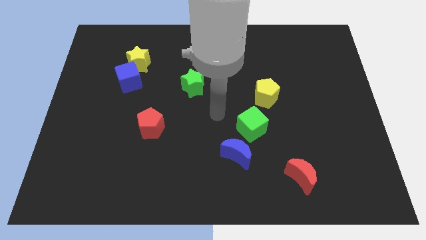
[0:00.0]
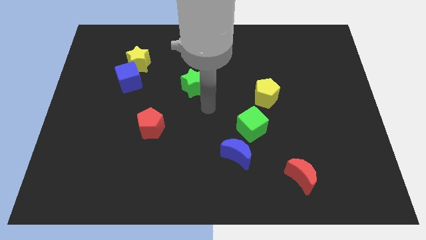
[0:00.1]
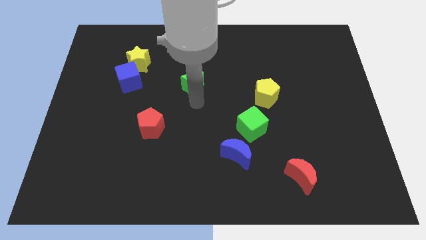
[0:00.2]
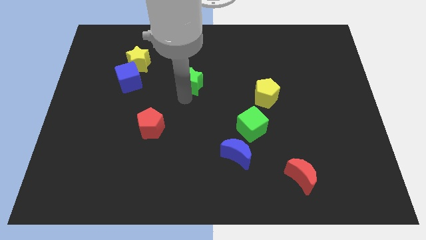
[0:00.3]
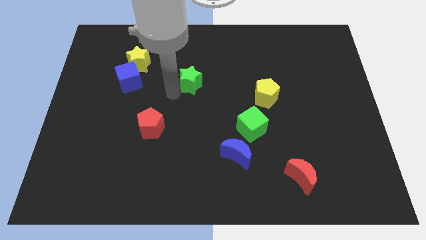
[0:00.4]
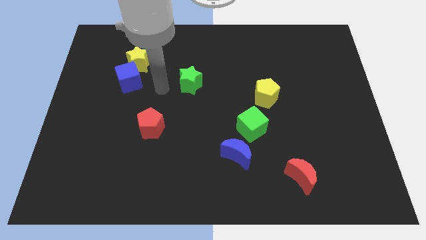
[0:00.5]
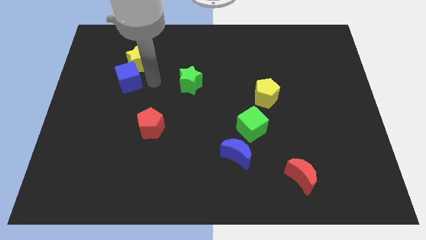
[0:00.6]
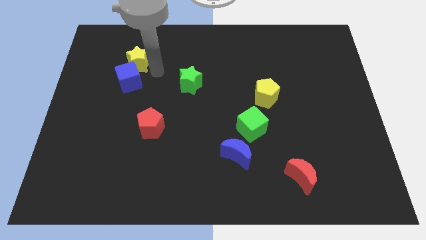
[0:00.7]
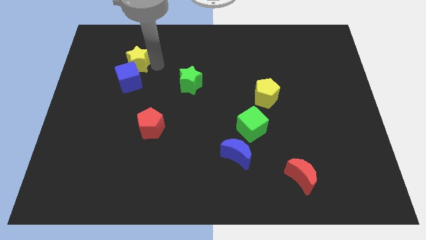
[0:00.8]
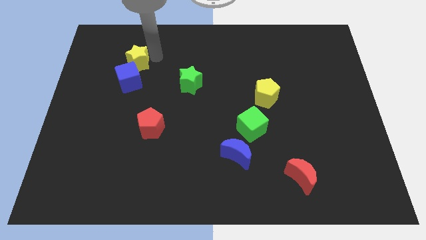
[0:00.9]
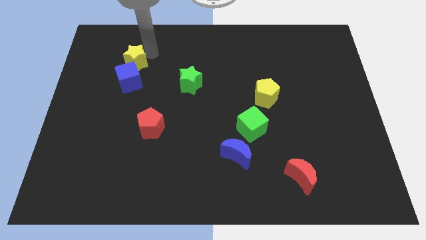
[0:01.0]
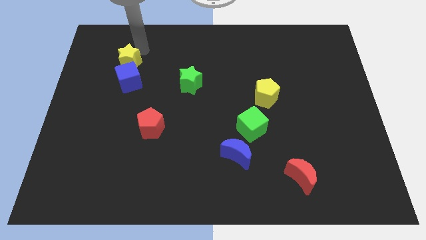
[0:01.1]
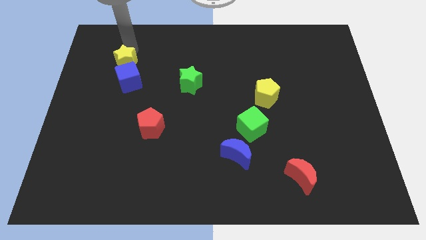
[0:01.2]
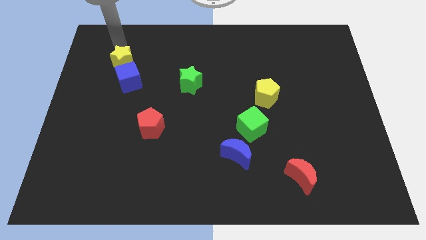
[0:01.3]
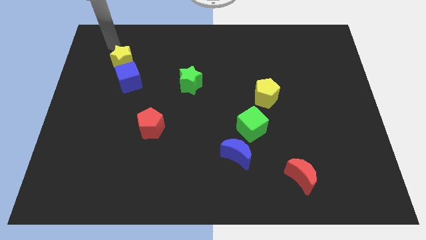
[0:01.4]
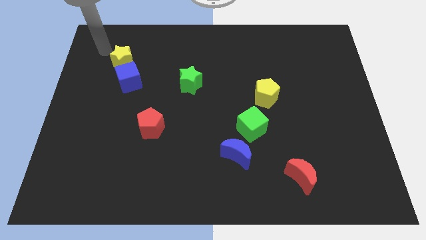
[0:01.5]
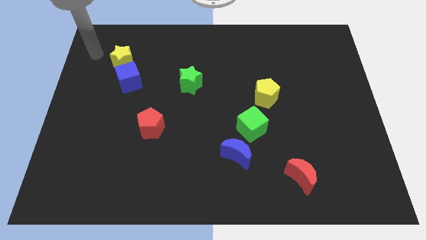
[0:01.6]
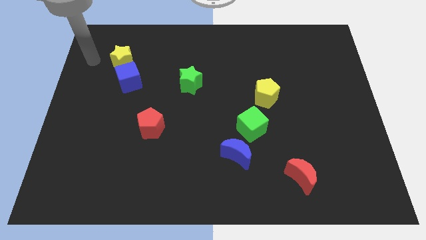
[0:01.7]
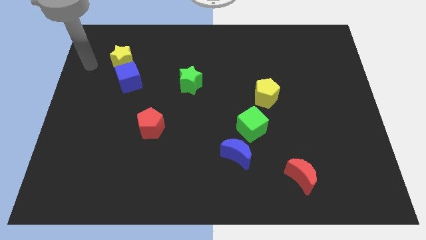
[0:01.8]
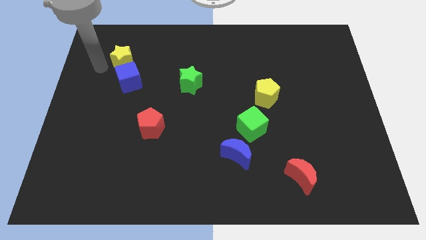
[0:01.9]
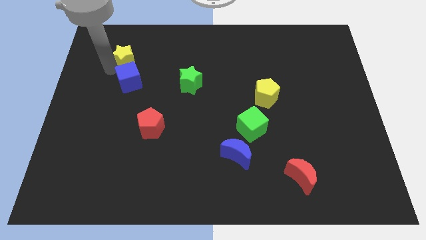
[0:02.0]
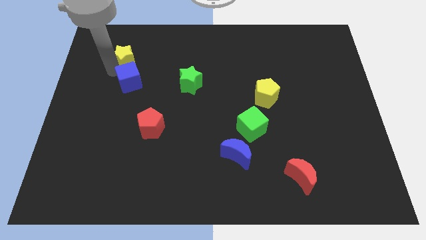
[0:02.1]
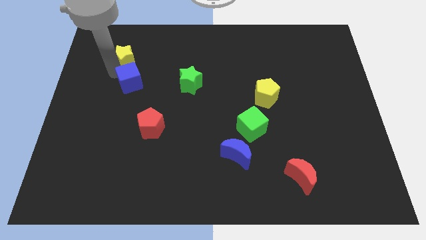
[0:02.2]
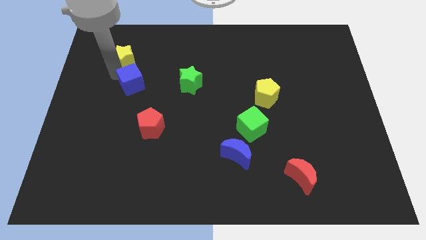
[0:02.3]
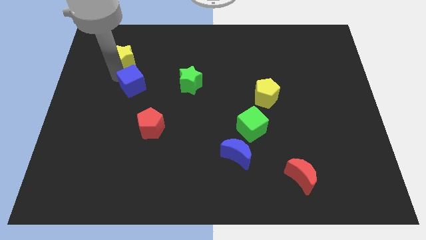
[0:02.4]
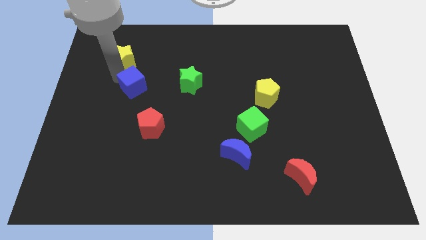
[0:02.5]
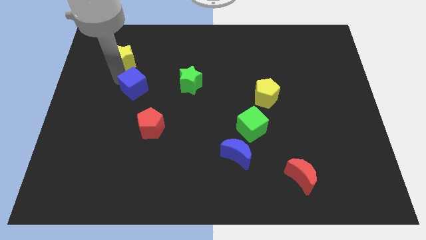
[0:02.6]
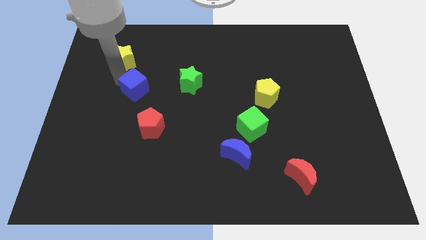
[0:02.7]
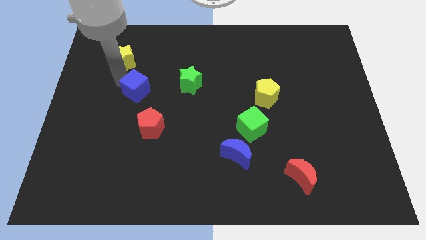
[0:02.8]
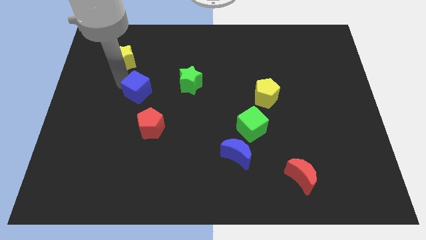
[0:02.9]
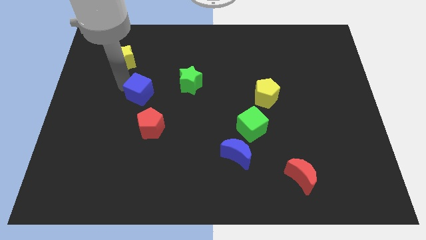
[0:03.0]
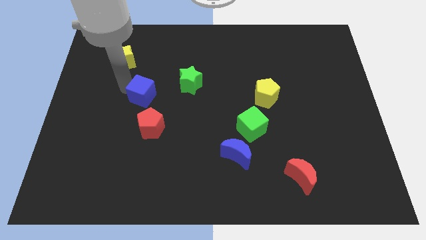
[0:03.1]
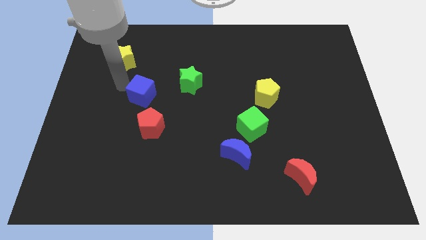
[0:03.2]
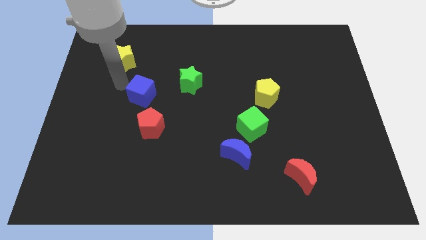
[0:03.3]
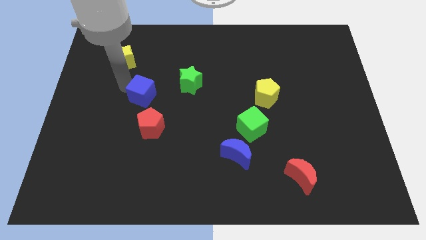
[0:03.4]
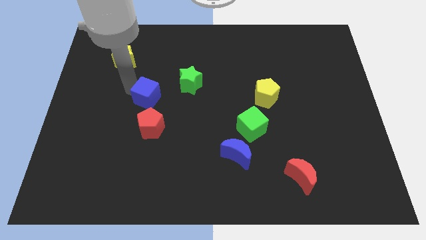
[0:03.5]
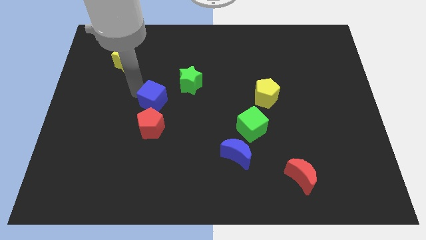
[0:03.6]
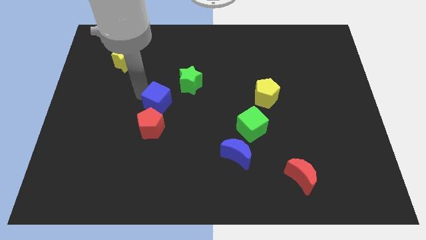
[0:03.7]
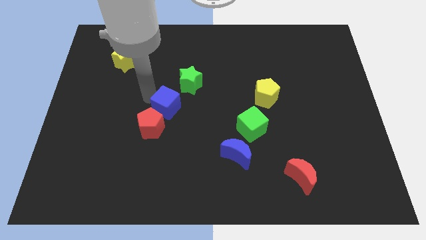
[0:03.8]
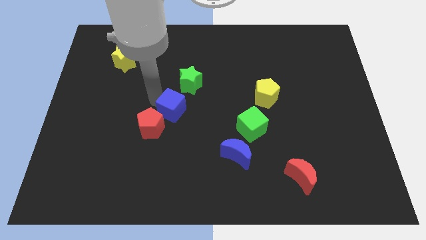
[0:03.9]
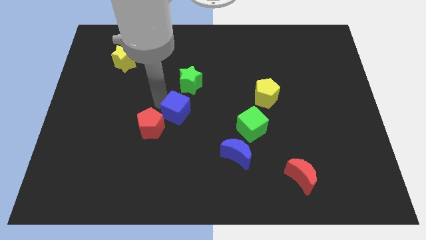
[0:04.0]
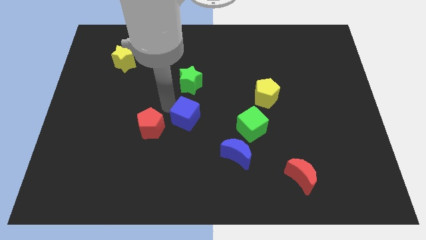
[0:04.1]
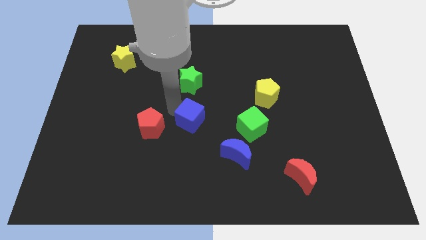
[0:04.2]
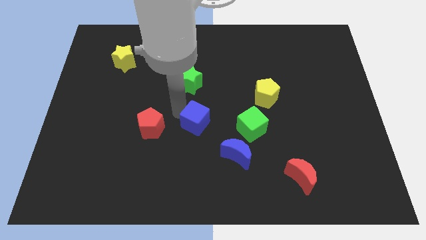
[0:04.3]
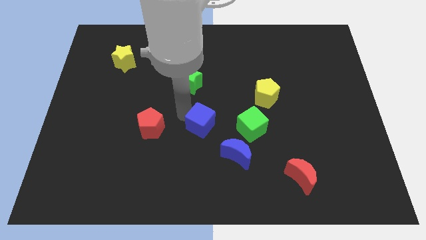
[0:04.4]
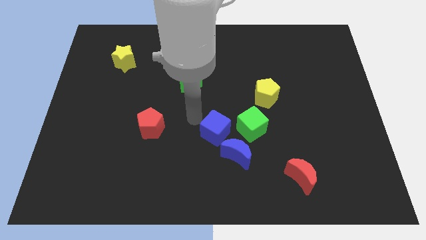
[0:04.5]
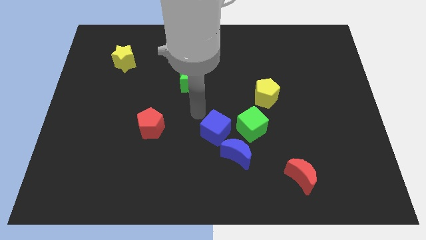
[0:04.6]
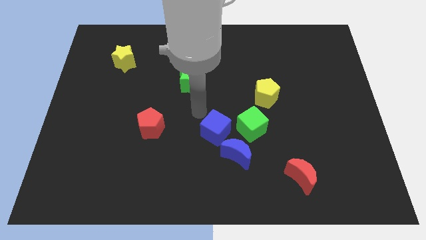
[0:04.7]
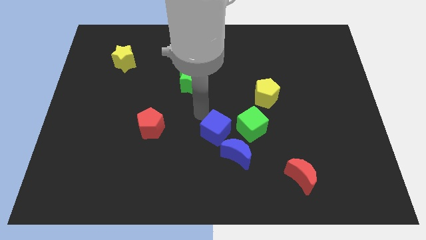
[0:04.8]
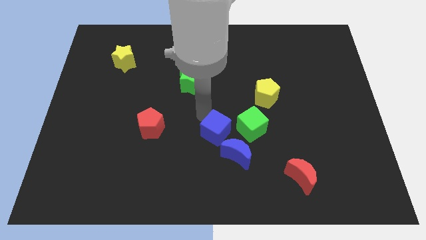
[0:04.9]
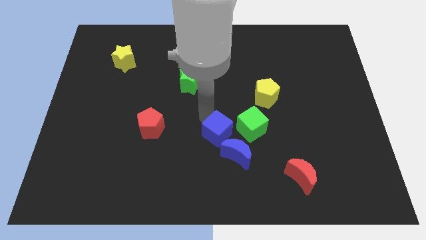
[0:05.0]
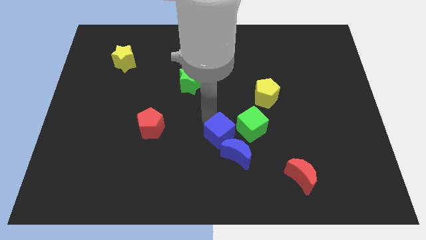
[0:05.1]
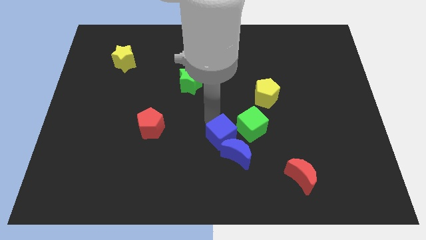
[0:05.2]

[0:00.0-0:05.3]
slide the blue cube towards the blue moon

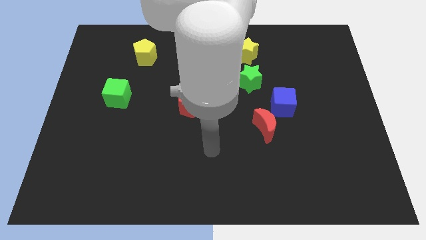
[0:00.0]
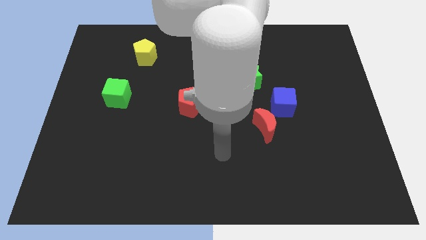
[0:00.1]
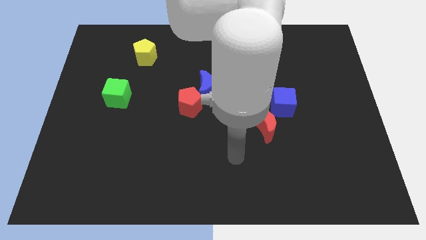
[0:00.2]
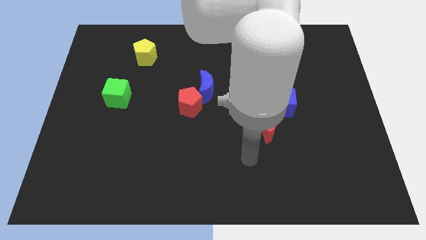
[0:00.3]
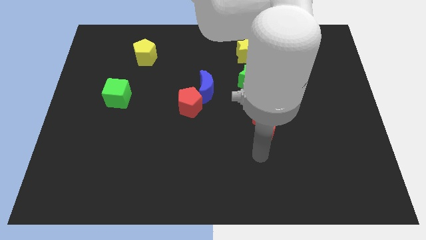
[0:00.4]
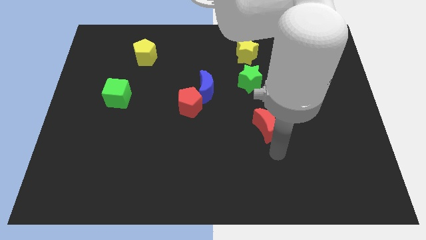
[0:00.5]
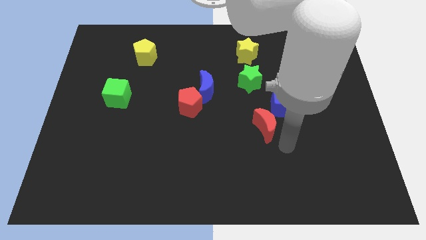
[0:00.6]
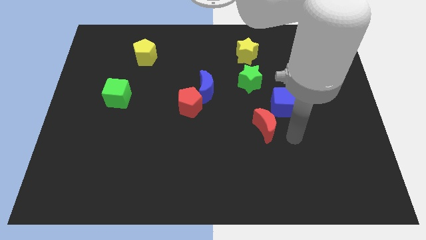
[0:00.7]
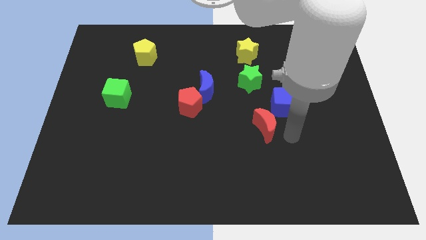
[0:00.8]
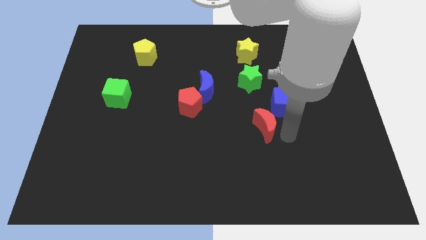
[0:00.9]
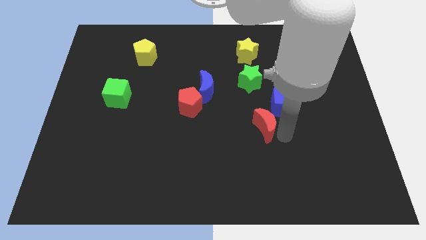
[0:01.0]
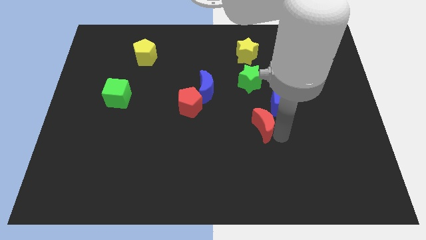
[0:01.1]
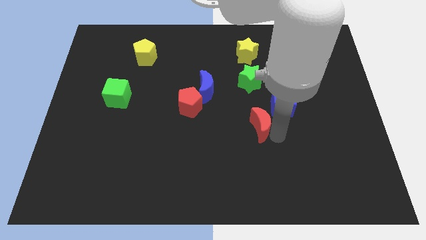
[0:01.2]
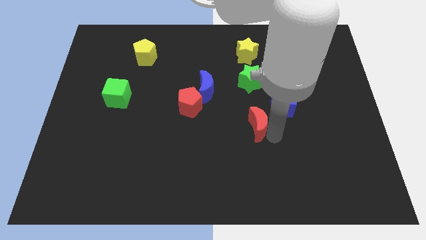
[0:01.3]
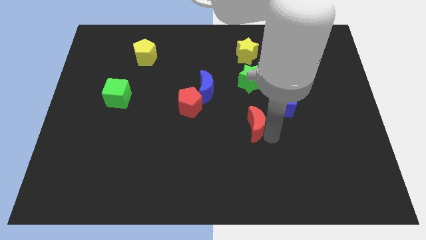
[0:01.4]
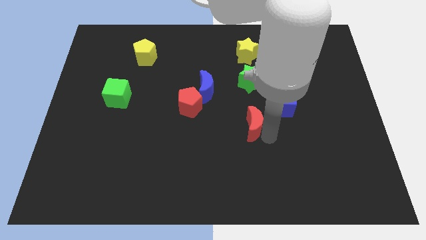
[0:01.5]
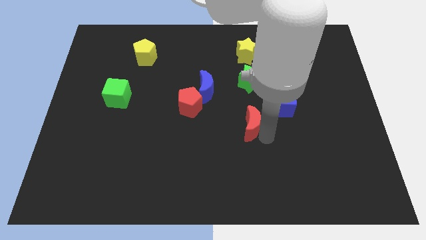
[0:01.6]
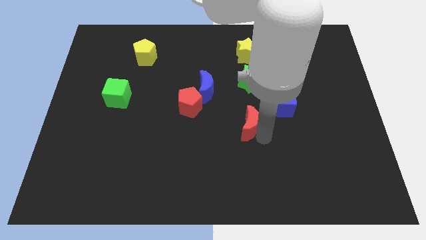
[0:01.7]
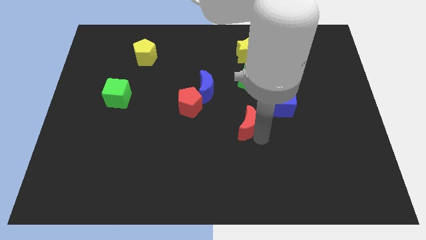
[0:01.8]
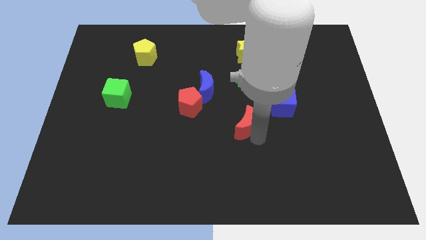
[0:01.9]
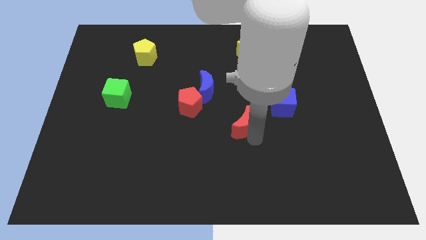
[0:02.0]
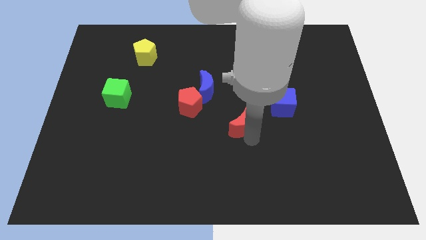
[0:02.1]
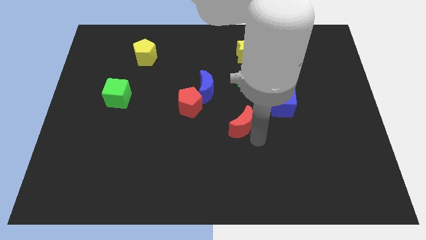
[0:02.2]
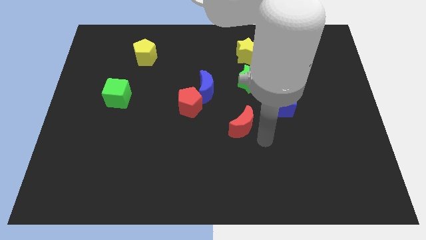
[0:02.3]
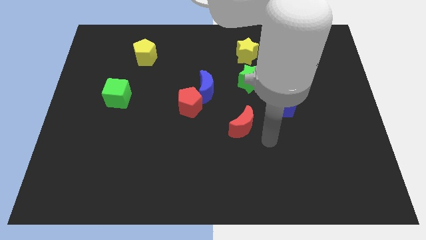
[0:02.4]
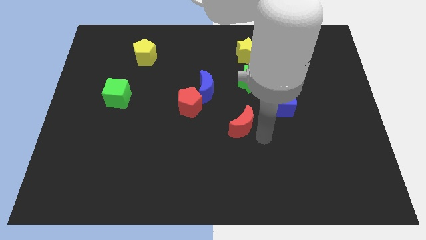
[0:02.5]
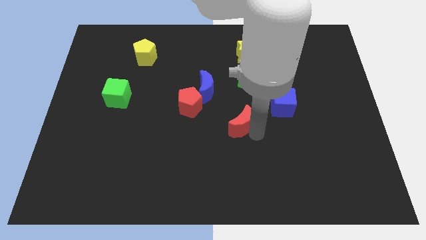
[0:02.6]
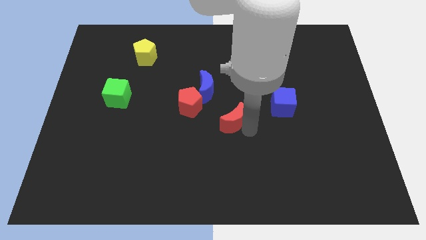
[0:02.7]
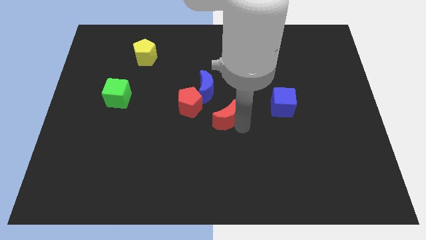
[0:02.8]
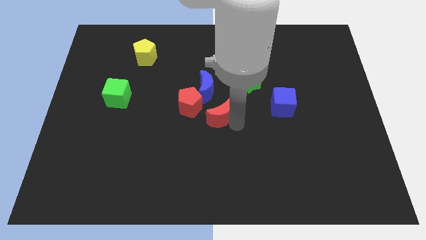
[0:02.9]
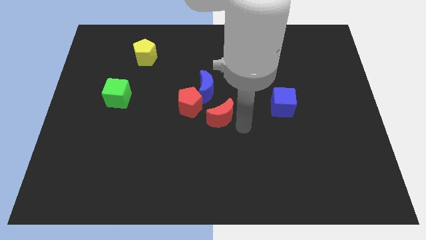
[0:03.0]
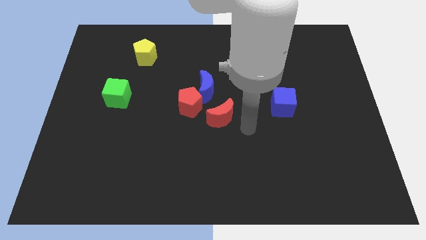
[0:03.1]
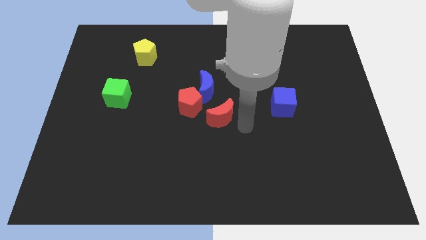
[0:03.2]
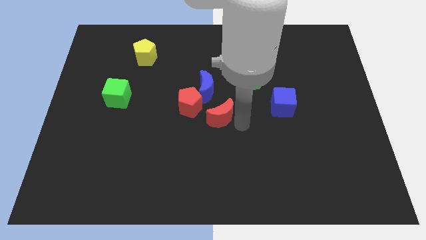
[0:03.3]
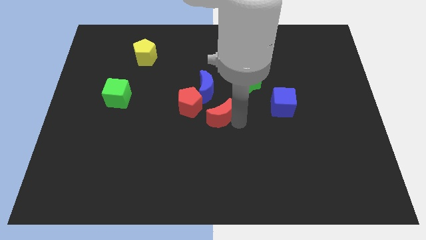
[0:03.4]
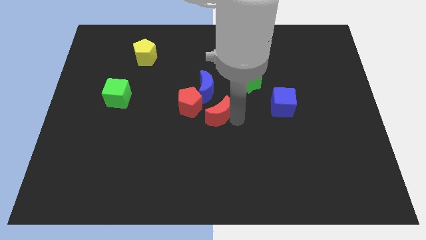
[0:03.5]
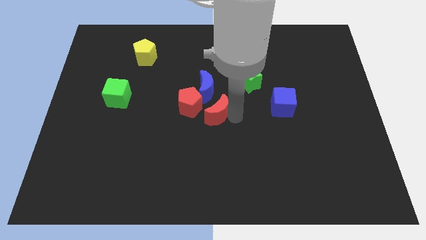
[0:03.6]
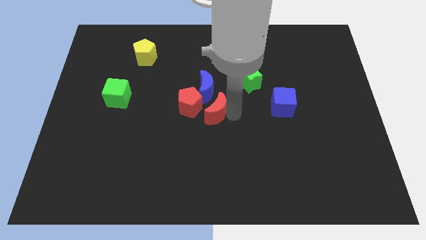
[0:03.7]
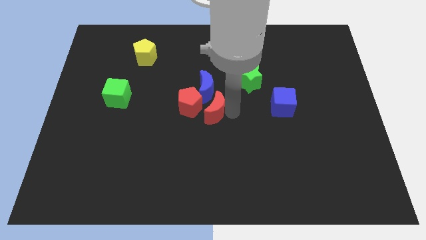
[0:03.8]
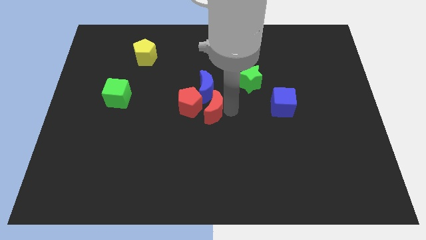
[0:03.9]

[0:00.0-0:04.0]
move the red moon to the red pentagon
